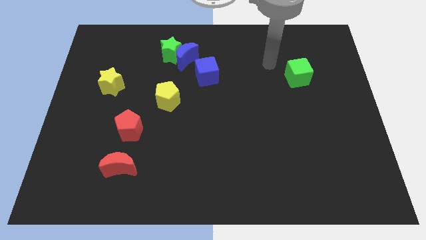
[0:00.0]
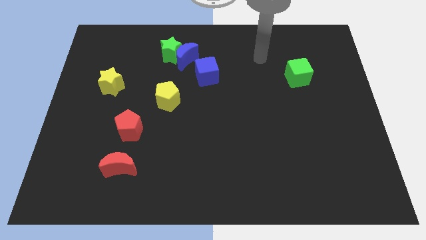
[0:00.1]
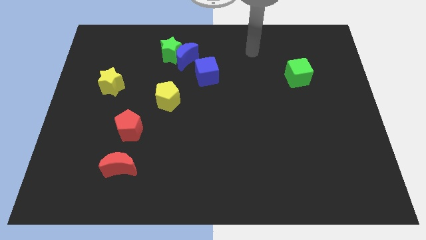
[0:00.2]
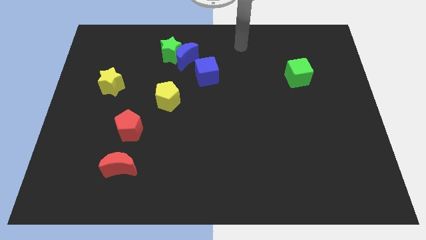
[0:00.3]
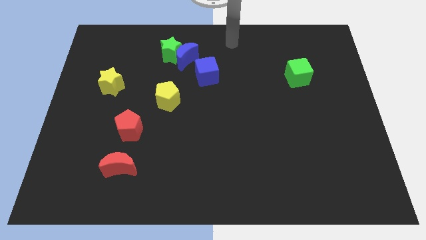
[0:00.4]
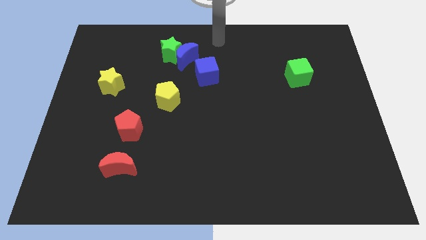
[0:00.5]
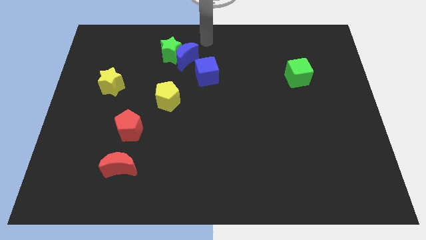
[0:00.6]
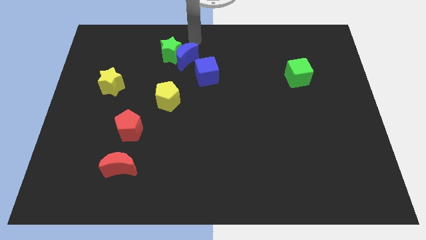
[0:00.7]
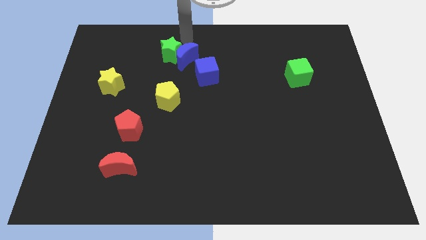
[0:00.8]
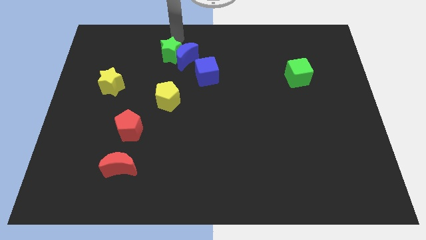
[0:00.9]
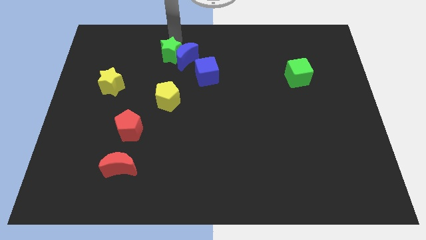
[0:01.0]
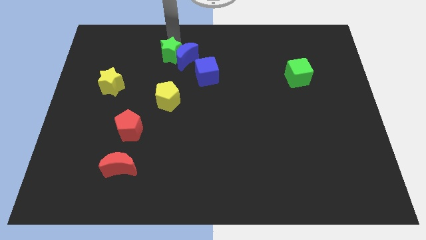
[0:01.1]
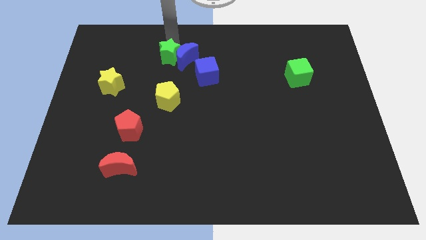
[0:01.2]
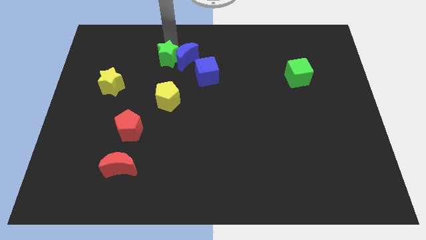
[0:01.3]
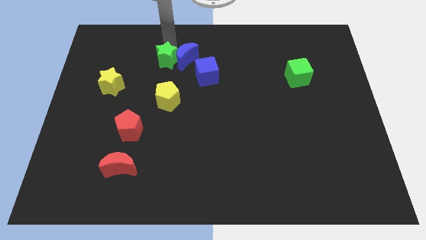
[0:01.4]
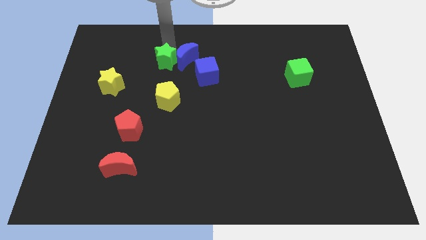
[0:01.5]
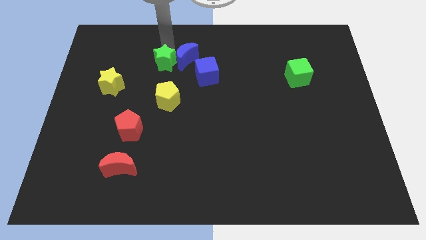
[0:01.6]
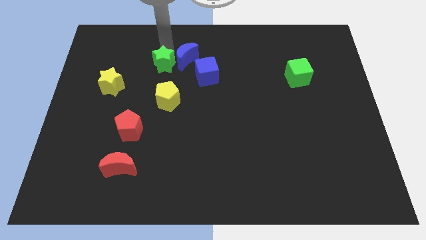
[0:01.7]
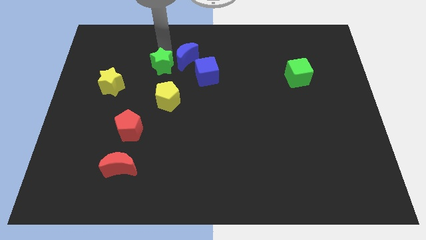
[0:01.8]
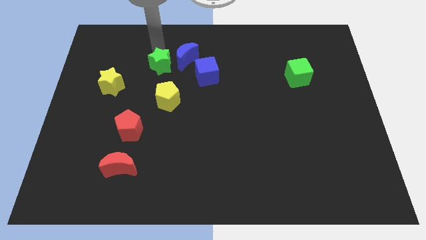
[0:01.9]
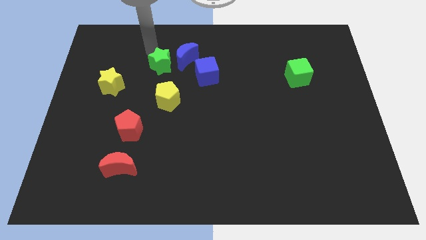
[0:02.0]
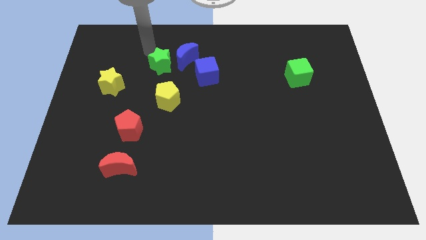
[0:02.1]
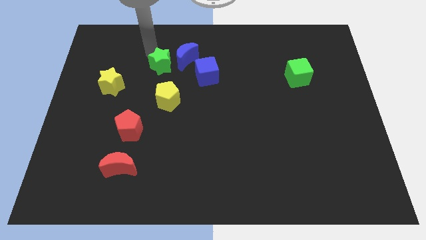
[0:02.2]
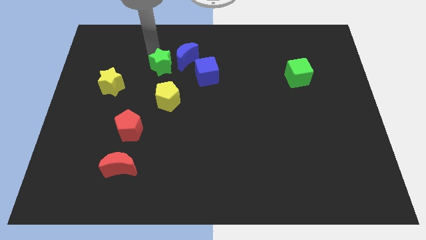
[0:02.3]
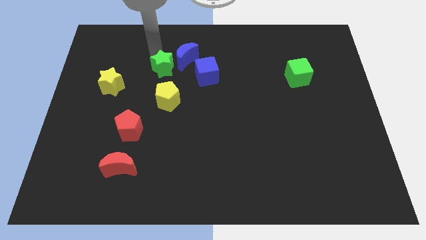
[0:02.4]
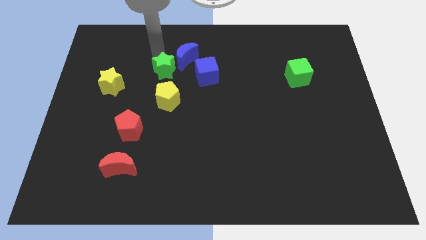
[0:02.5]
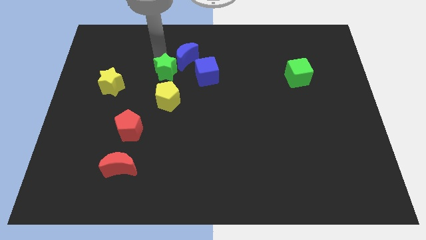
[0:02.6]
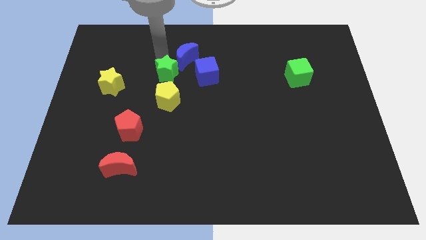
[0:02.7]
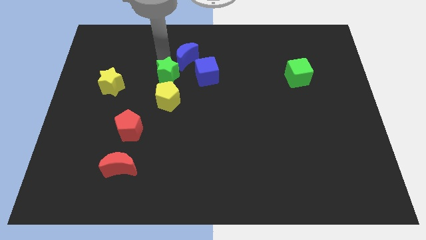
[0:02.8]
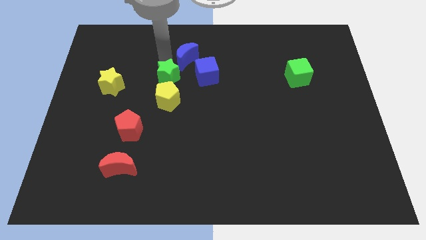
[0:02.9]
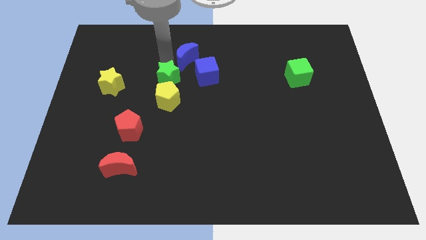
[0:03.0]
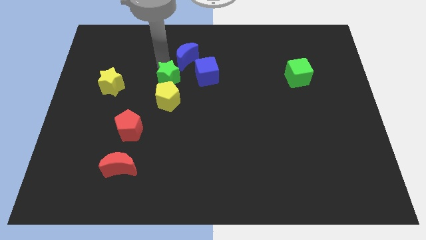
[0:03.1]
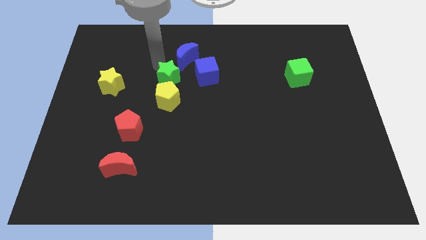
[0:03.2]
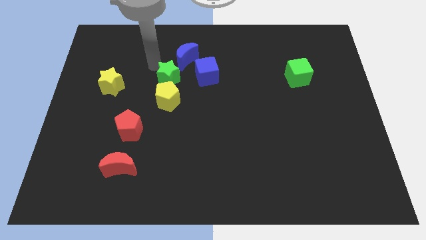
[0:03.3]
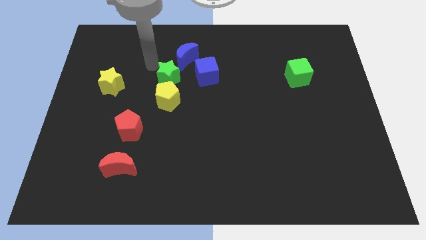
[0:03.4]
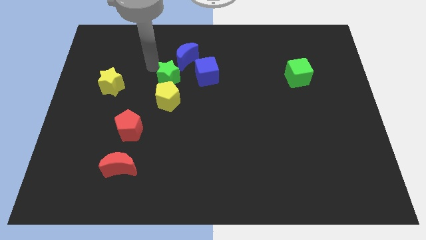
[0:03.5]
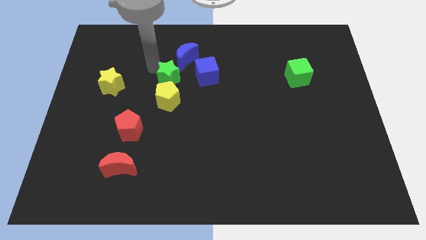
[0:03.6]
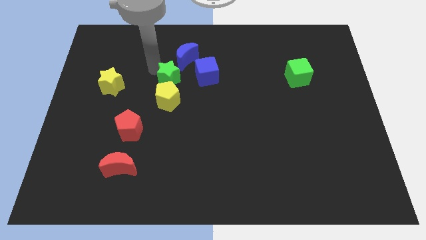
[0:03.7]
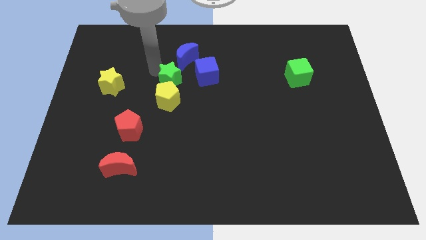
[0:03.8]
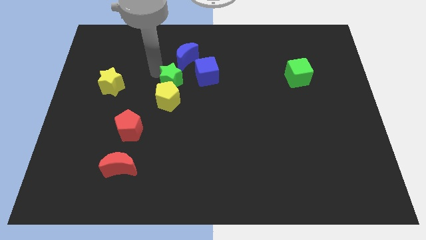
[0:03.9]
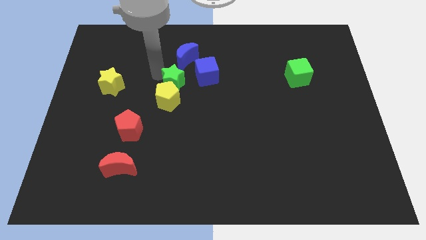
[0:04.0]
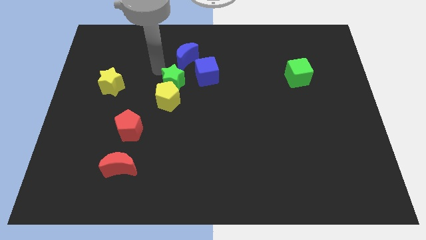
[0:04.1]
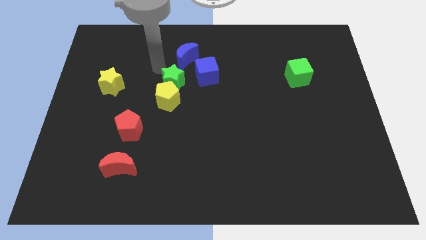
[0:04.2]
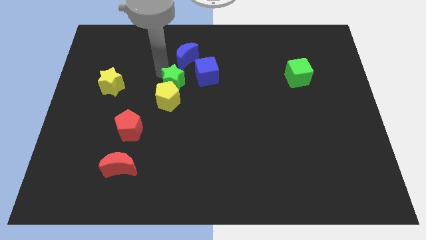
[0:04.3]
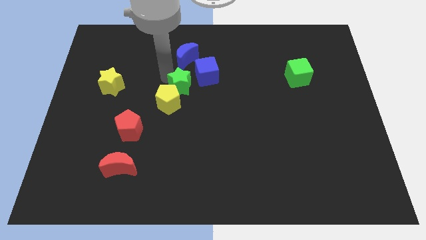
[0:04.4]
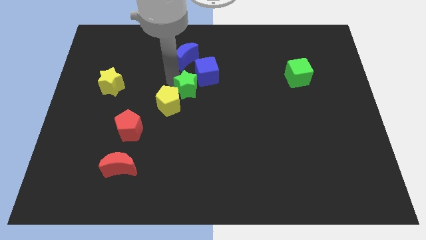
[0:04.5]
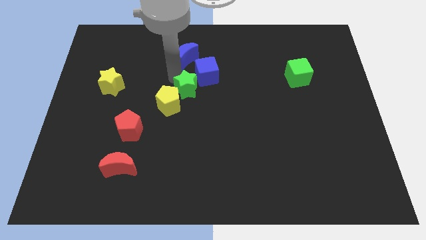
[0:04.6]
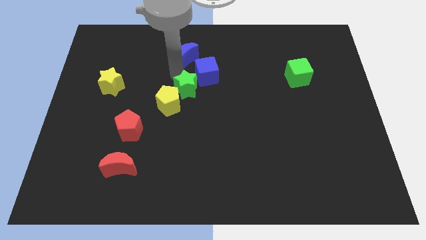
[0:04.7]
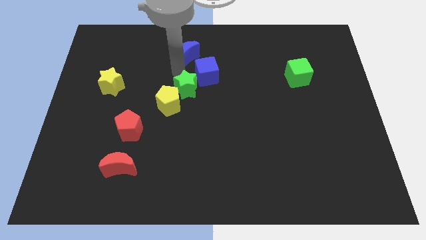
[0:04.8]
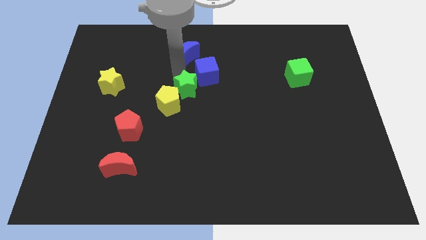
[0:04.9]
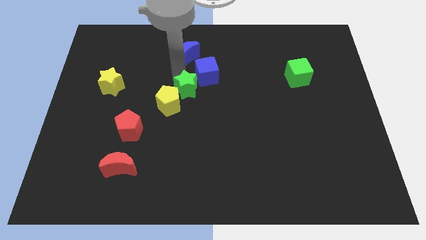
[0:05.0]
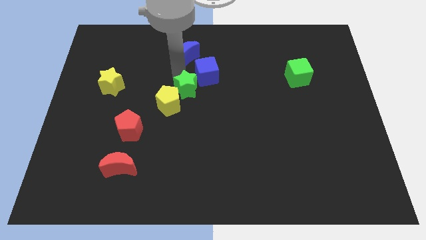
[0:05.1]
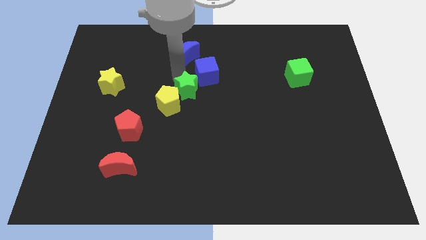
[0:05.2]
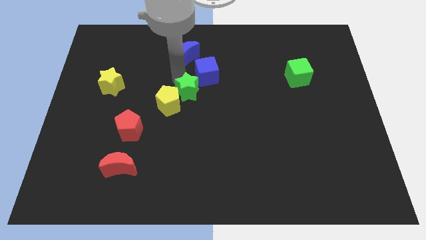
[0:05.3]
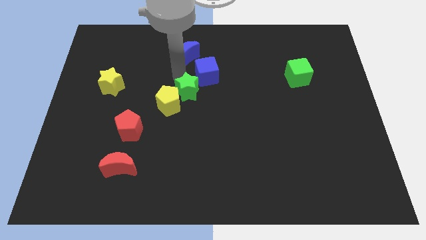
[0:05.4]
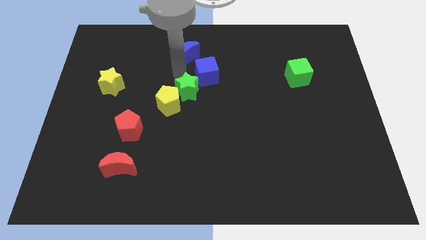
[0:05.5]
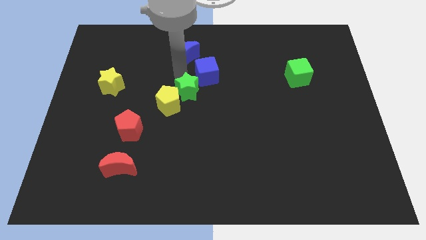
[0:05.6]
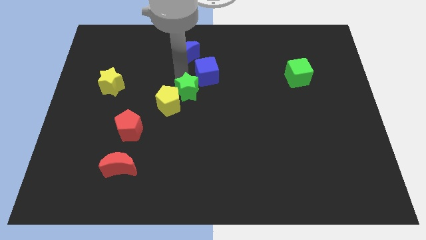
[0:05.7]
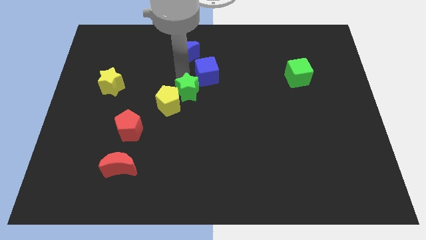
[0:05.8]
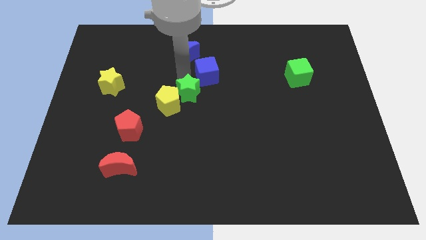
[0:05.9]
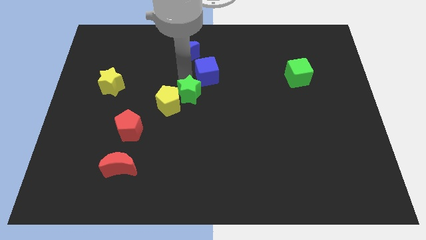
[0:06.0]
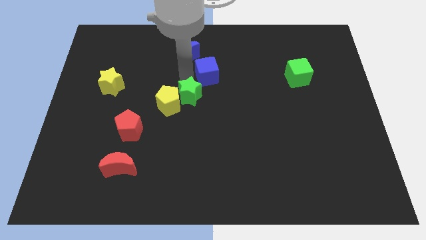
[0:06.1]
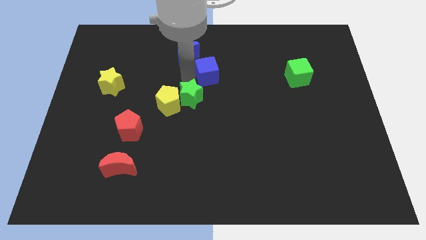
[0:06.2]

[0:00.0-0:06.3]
slide the green star to the bottom right of the yellow pentagon

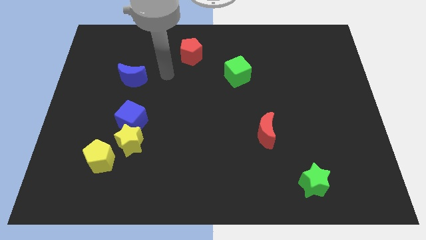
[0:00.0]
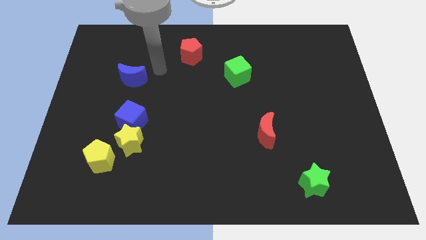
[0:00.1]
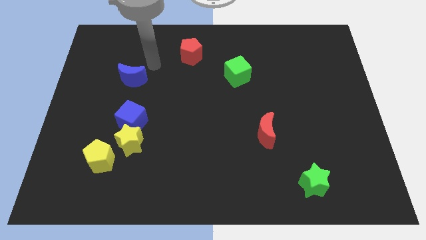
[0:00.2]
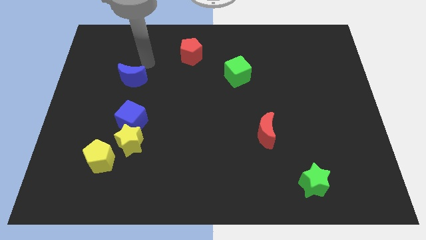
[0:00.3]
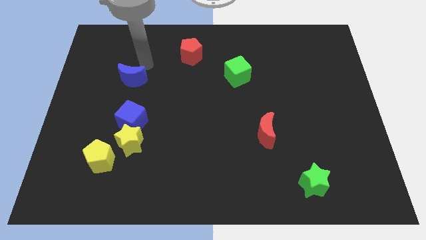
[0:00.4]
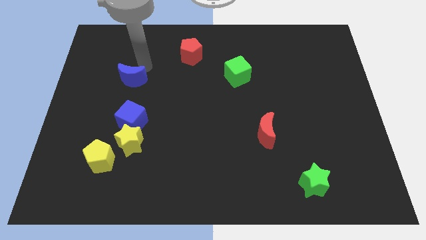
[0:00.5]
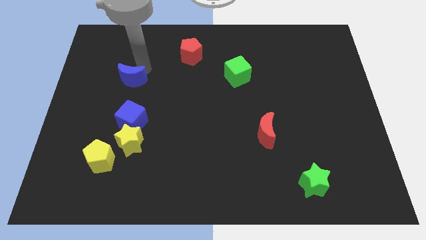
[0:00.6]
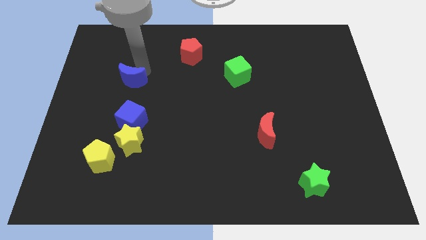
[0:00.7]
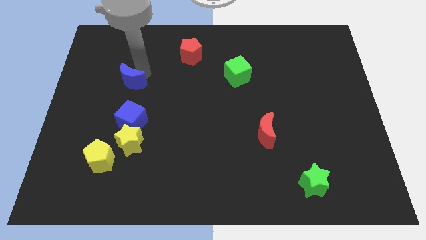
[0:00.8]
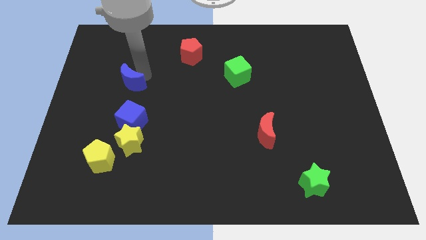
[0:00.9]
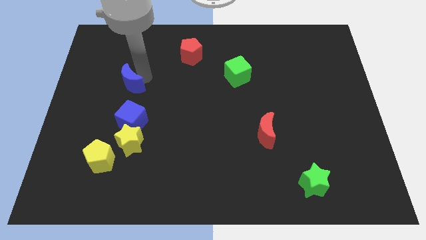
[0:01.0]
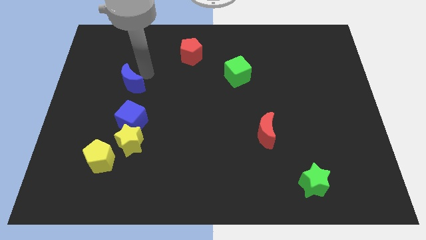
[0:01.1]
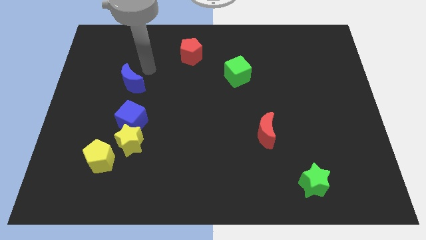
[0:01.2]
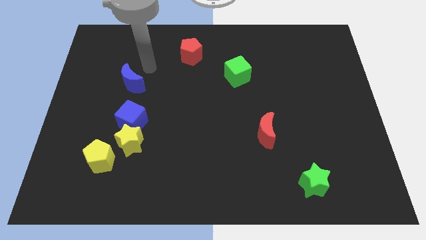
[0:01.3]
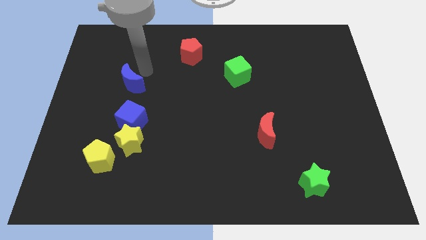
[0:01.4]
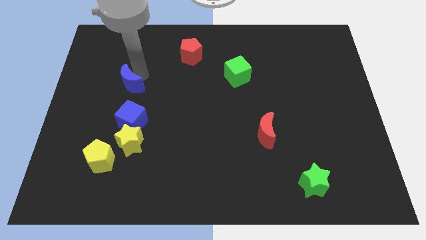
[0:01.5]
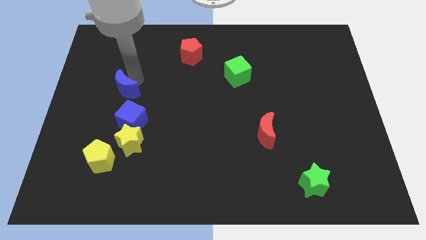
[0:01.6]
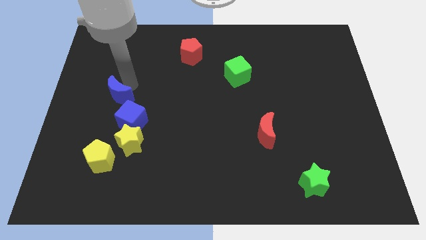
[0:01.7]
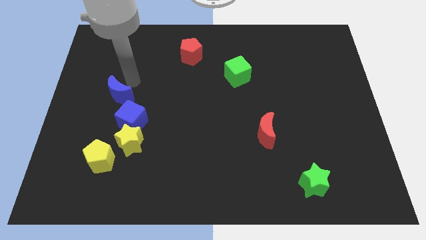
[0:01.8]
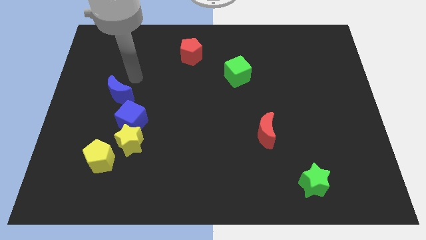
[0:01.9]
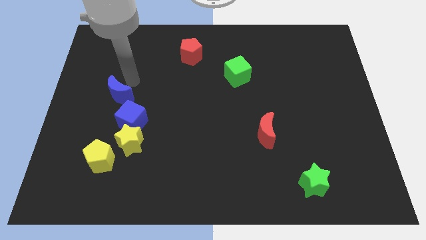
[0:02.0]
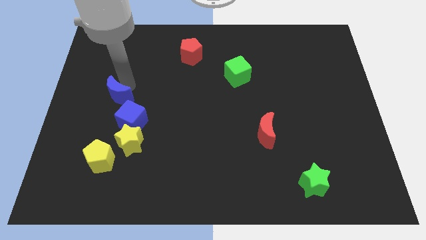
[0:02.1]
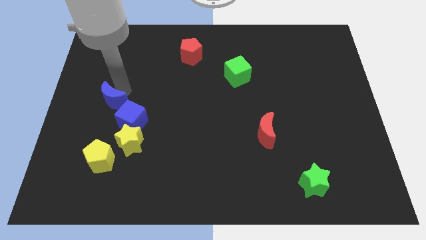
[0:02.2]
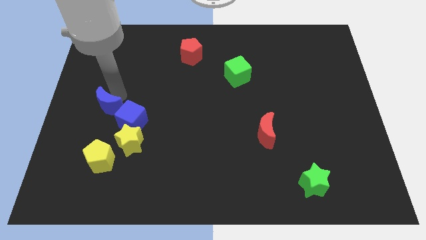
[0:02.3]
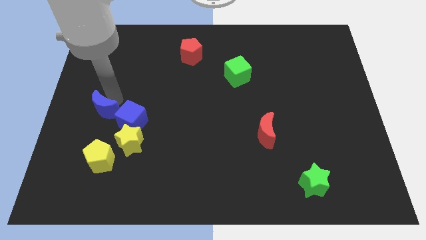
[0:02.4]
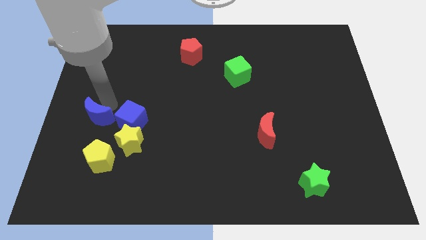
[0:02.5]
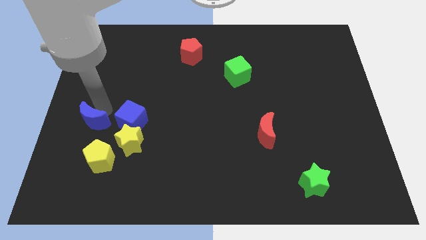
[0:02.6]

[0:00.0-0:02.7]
push the blue moon to the top left of the yellow pentagon
